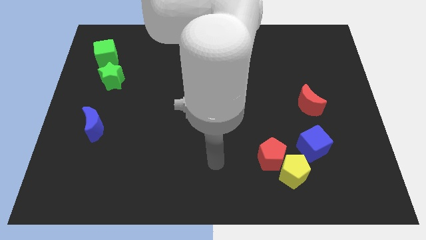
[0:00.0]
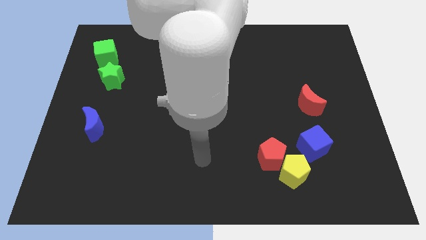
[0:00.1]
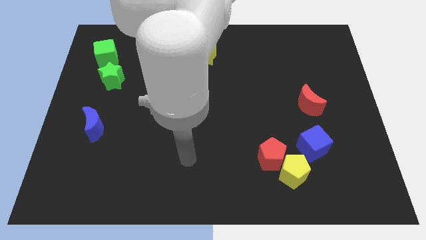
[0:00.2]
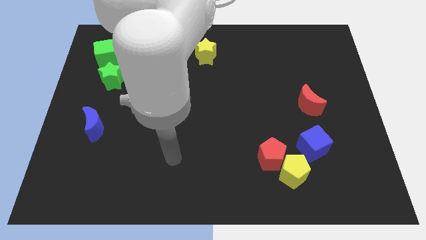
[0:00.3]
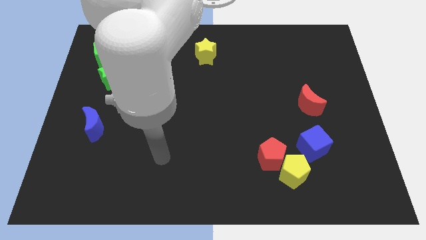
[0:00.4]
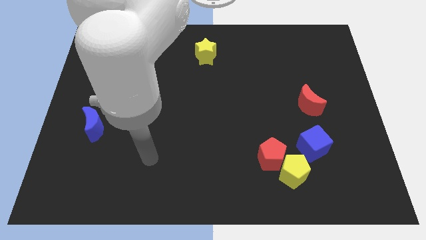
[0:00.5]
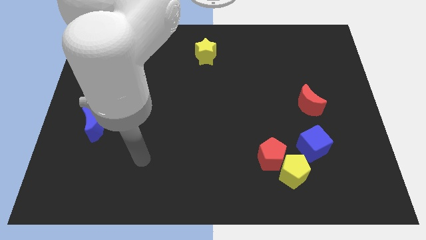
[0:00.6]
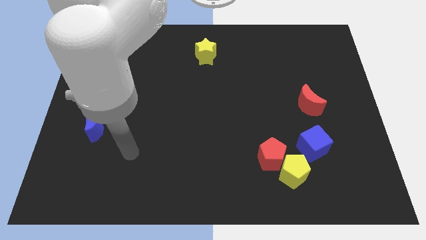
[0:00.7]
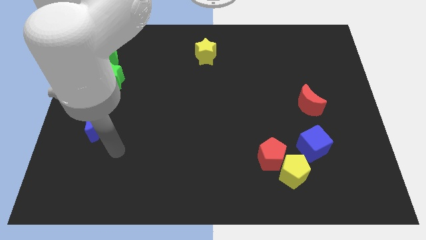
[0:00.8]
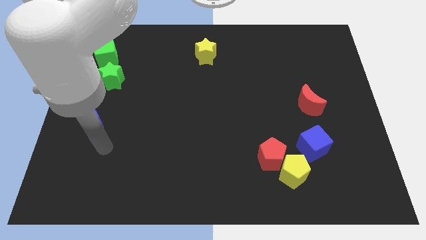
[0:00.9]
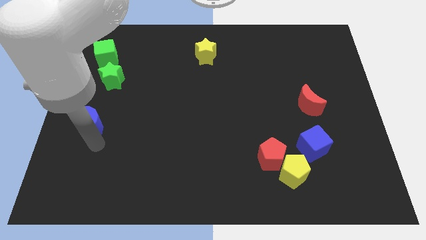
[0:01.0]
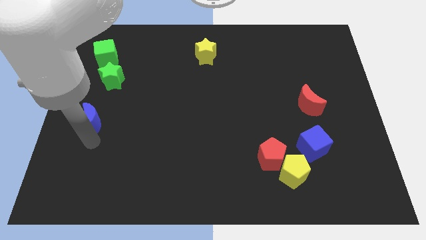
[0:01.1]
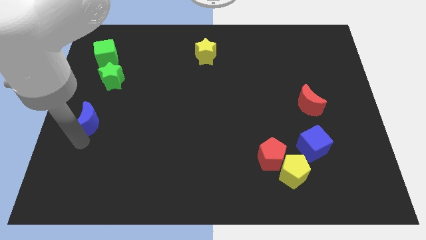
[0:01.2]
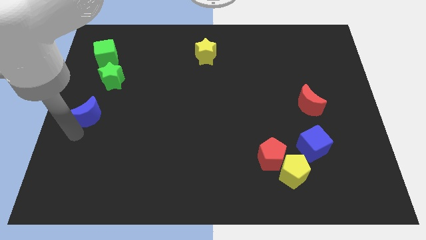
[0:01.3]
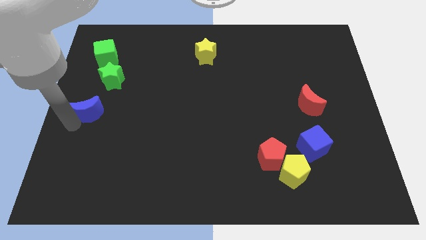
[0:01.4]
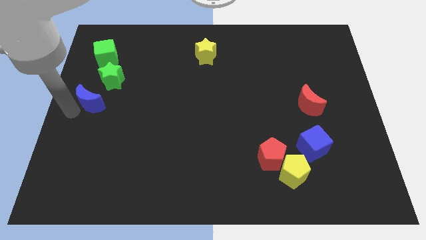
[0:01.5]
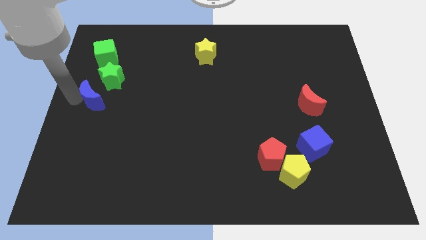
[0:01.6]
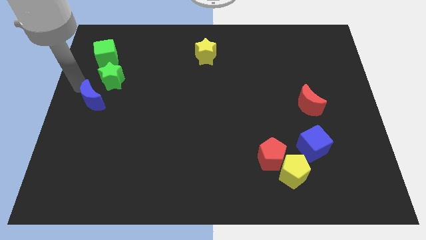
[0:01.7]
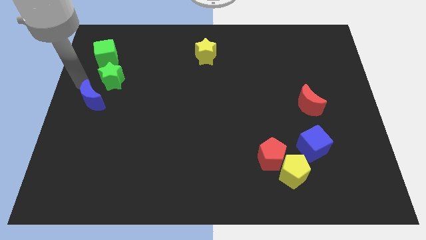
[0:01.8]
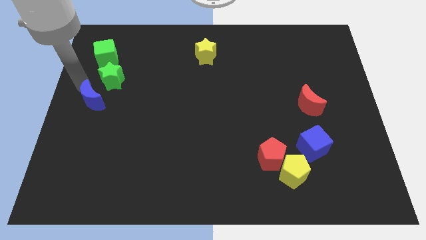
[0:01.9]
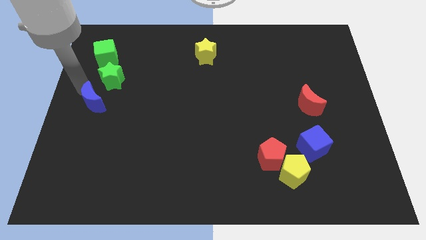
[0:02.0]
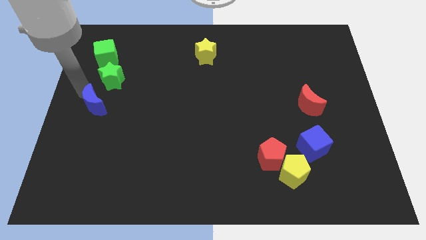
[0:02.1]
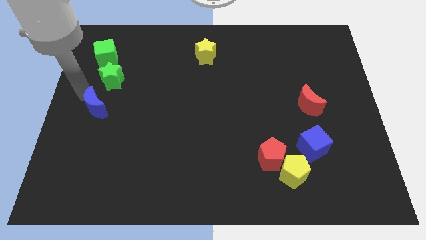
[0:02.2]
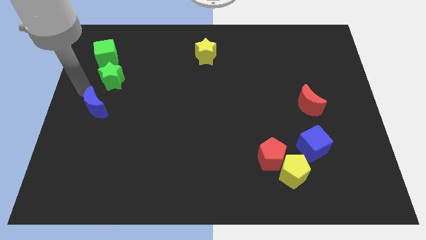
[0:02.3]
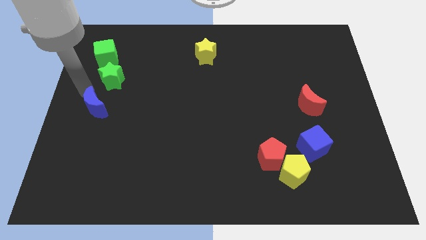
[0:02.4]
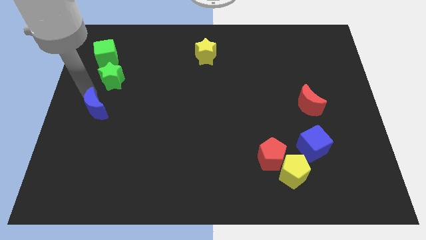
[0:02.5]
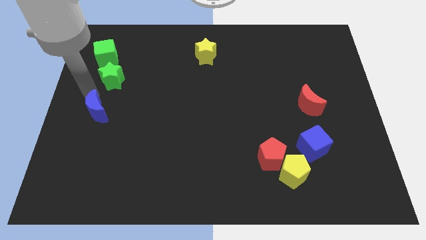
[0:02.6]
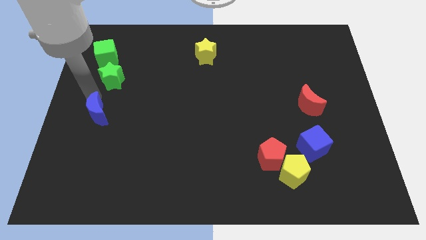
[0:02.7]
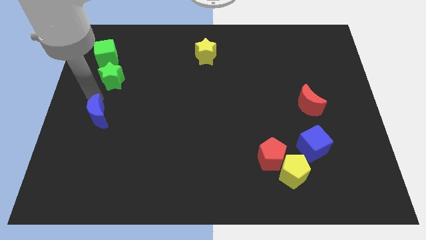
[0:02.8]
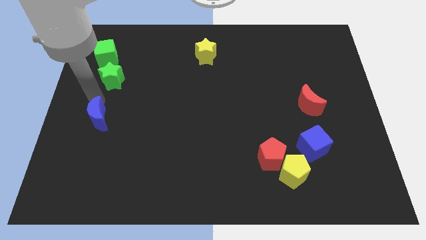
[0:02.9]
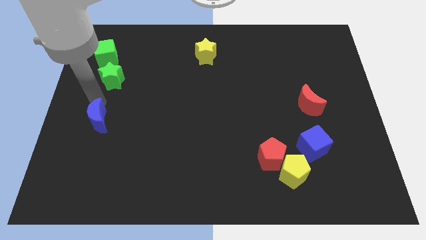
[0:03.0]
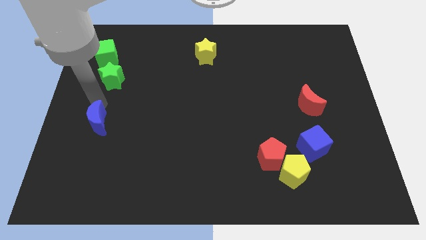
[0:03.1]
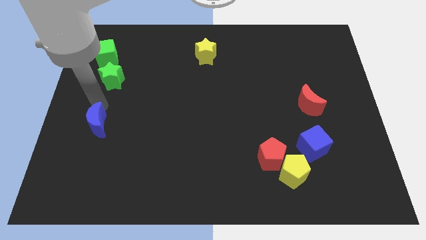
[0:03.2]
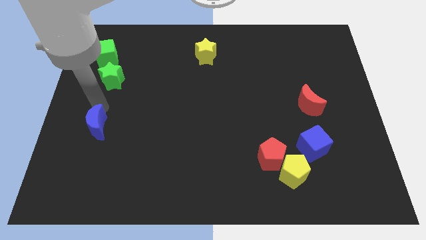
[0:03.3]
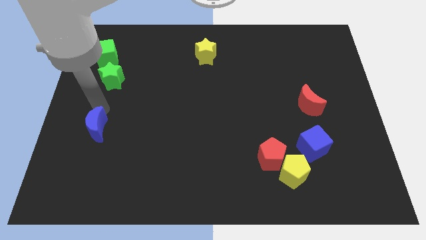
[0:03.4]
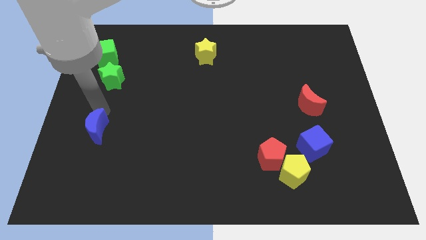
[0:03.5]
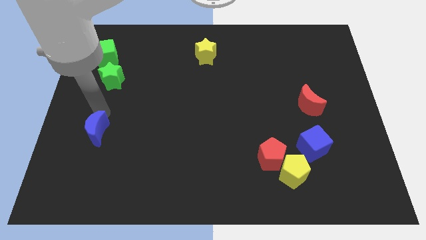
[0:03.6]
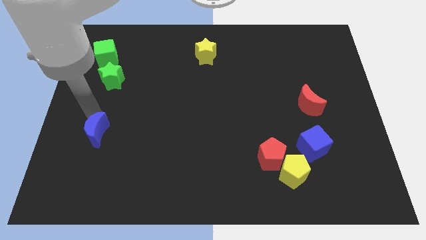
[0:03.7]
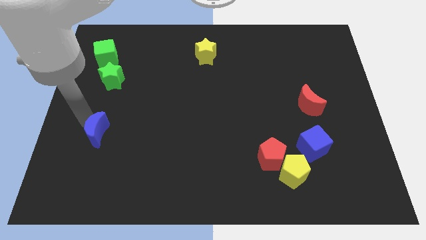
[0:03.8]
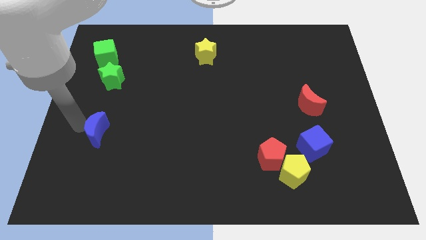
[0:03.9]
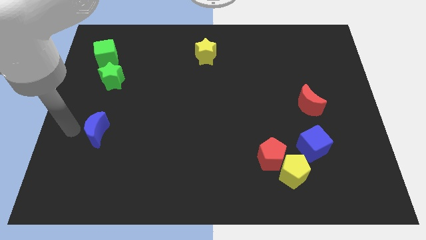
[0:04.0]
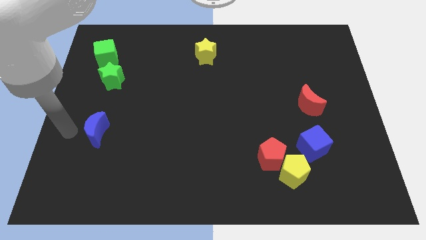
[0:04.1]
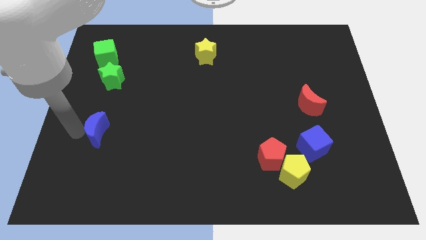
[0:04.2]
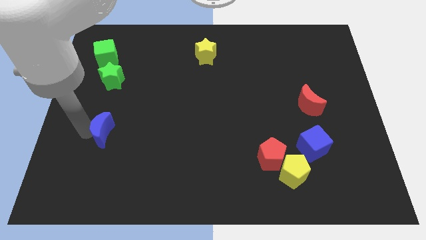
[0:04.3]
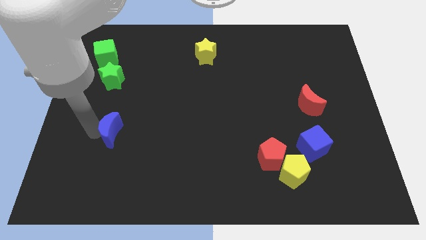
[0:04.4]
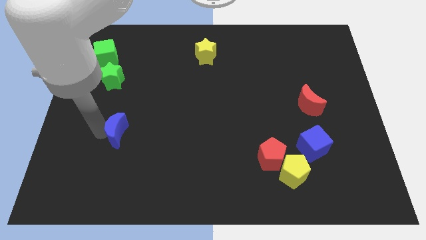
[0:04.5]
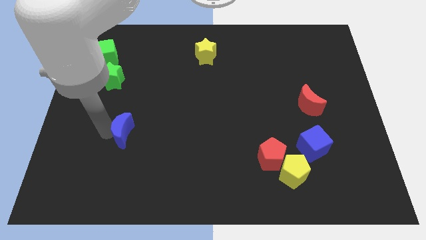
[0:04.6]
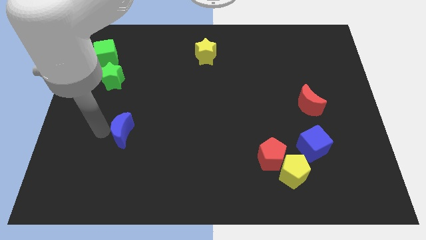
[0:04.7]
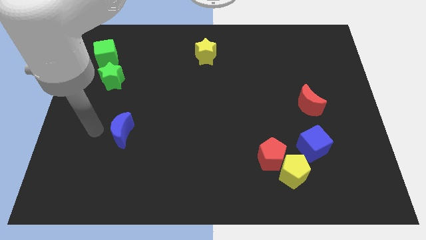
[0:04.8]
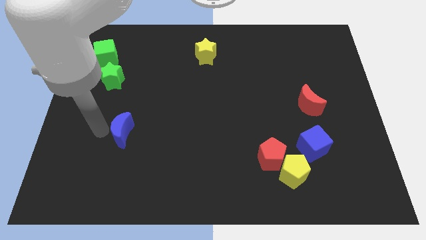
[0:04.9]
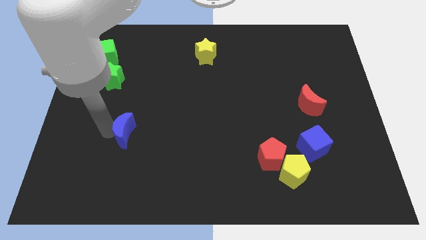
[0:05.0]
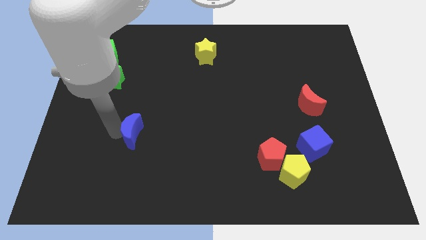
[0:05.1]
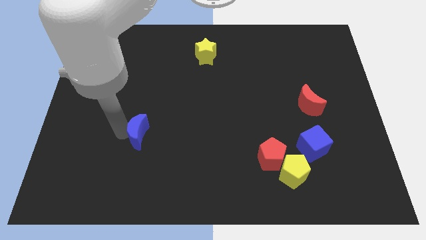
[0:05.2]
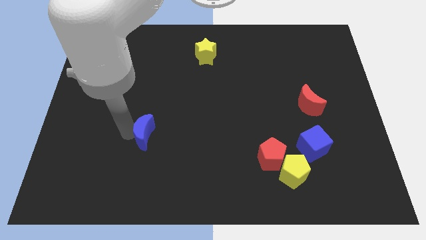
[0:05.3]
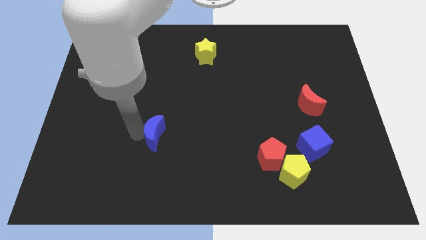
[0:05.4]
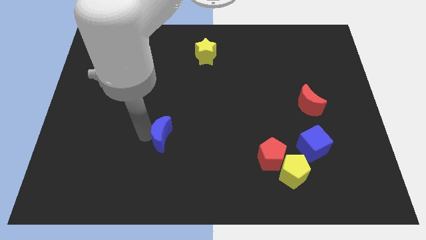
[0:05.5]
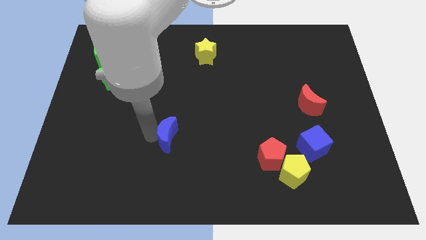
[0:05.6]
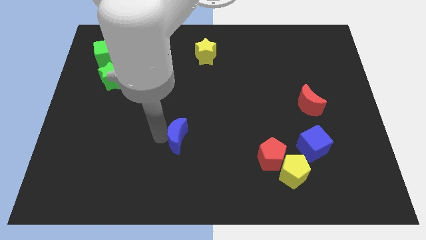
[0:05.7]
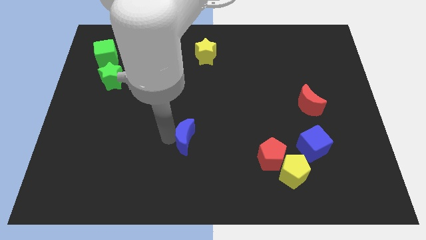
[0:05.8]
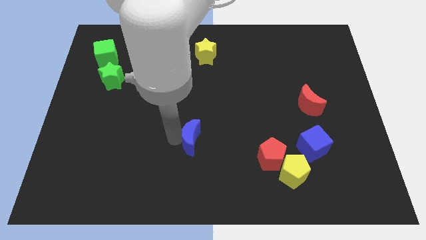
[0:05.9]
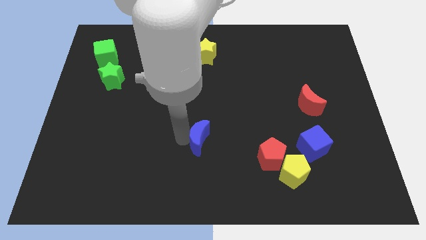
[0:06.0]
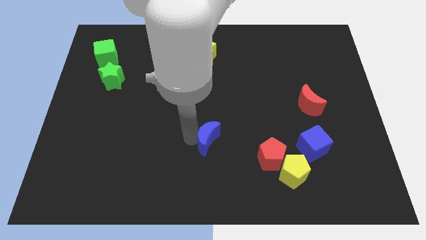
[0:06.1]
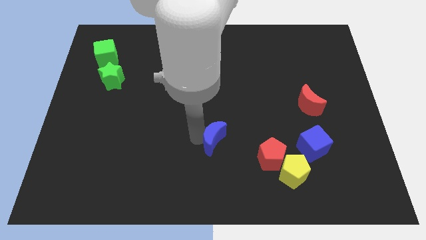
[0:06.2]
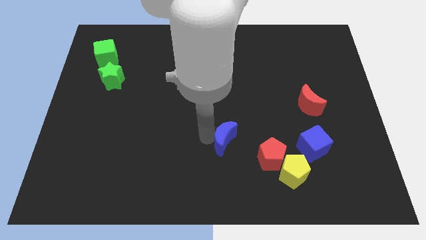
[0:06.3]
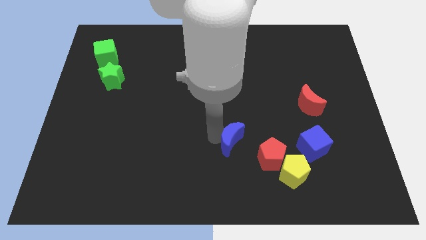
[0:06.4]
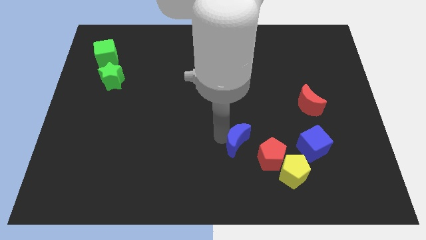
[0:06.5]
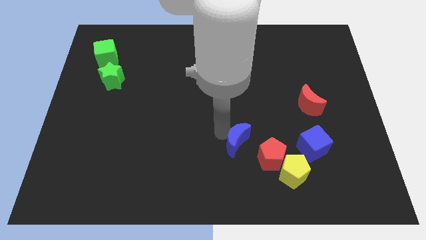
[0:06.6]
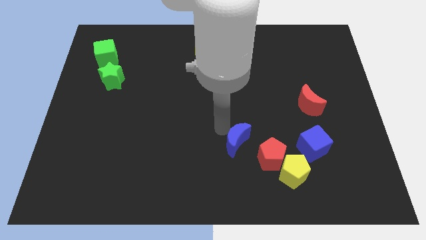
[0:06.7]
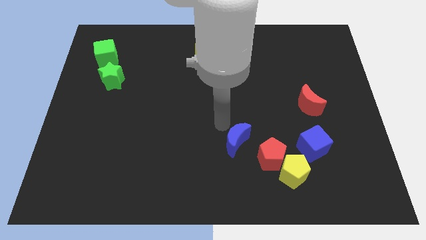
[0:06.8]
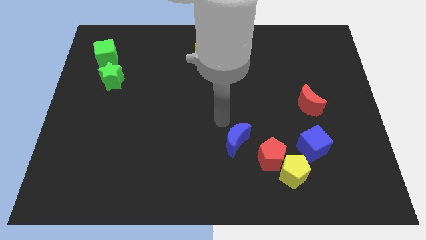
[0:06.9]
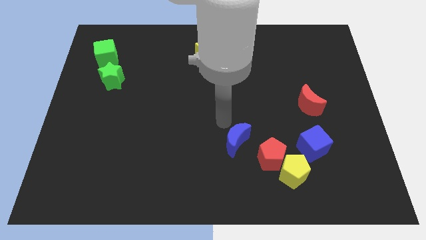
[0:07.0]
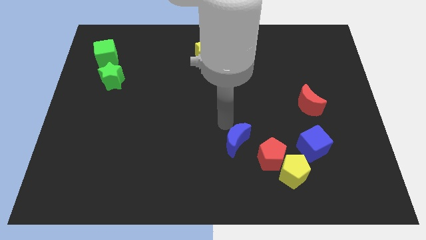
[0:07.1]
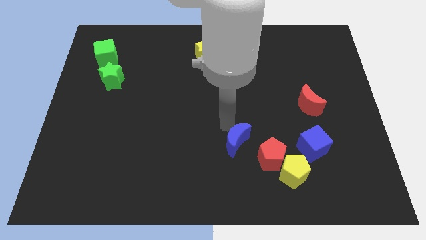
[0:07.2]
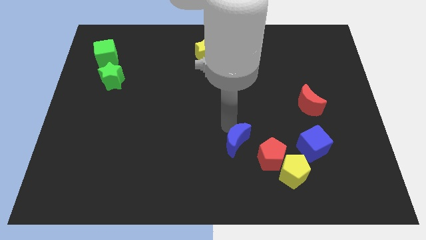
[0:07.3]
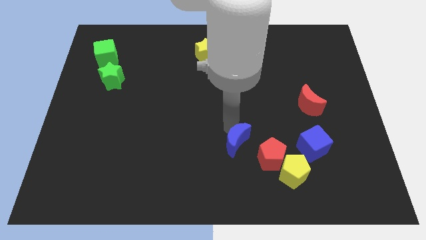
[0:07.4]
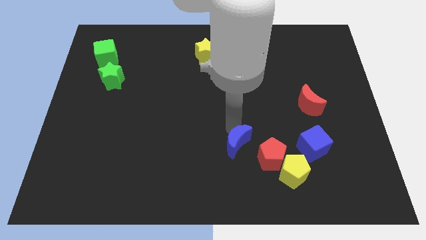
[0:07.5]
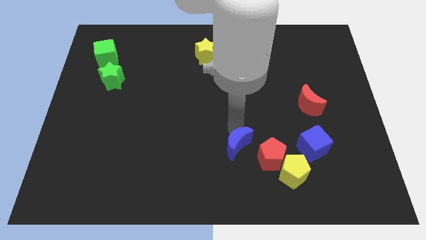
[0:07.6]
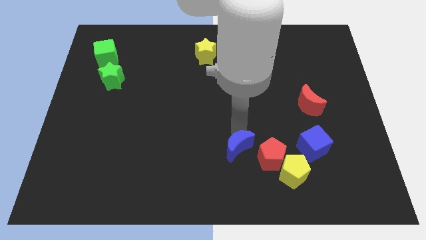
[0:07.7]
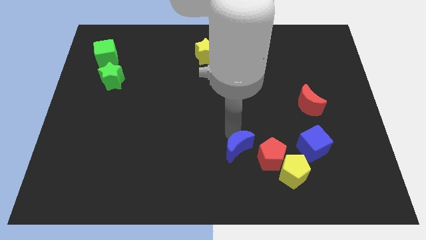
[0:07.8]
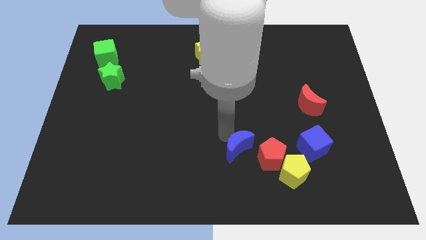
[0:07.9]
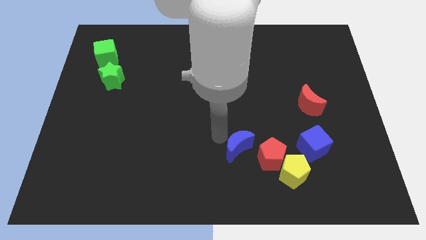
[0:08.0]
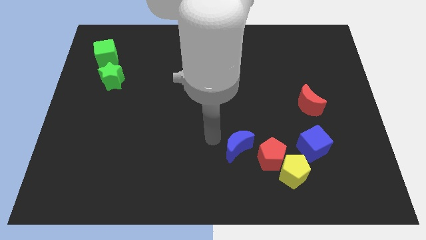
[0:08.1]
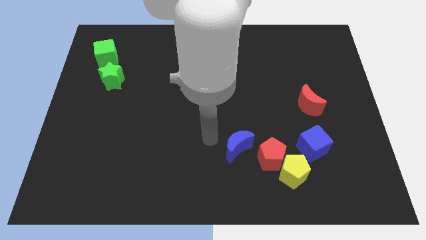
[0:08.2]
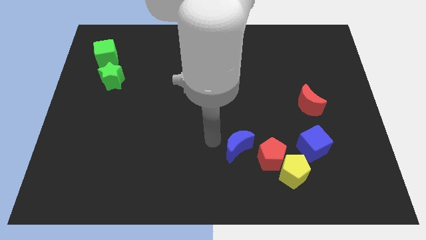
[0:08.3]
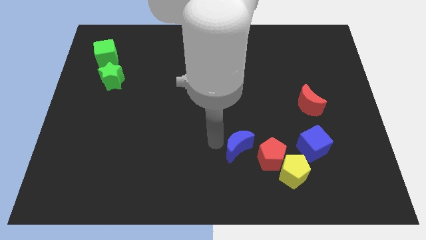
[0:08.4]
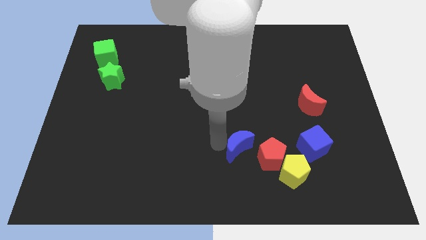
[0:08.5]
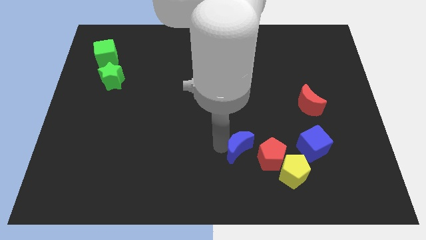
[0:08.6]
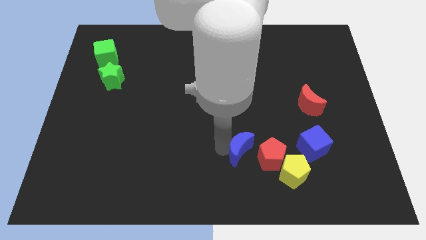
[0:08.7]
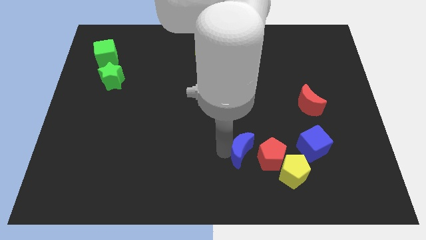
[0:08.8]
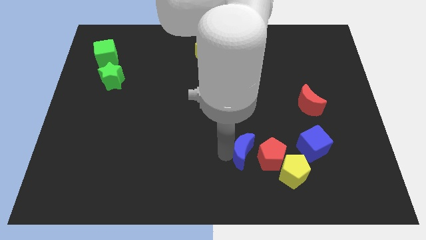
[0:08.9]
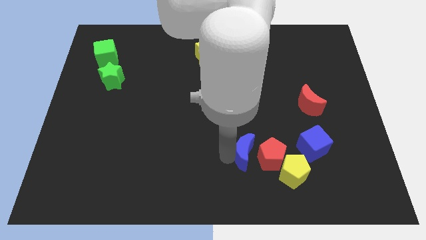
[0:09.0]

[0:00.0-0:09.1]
push the blue moon towards the red pentagon
